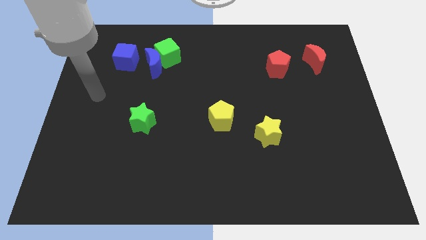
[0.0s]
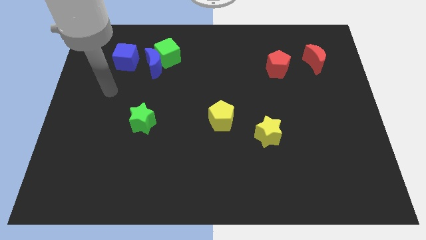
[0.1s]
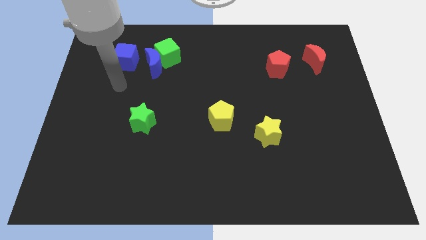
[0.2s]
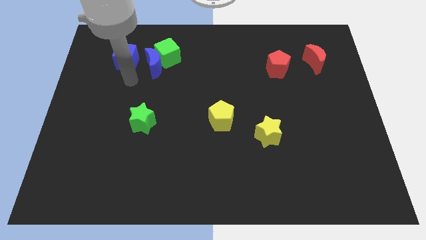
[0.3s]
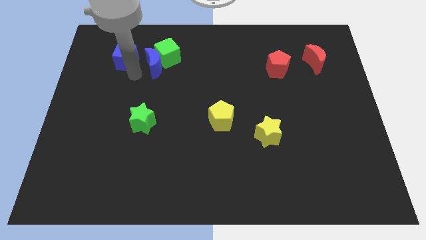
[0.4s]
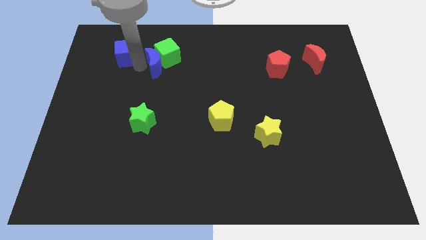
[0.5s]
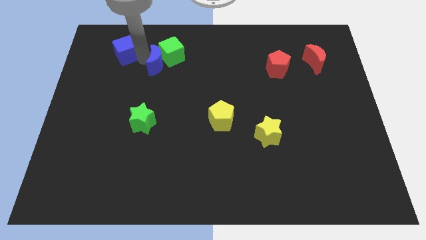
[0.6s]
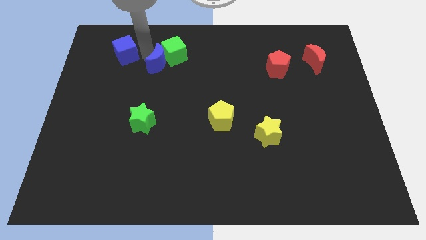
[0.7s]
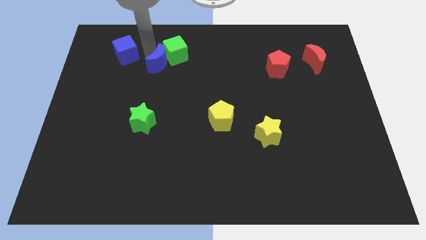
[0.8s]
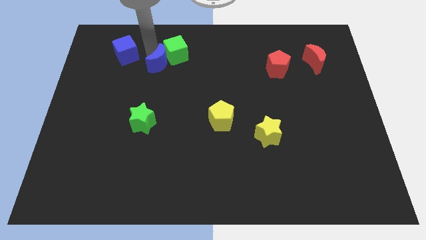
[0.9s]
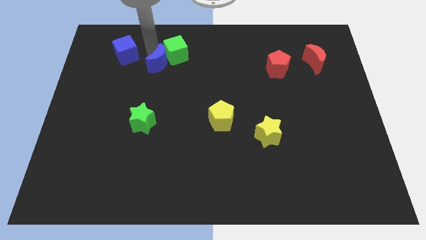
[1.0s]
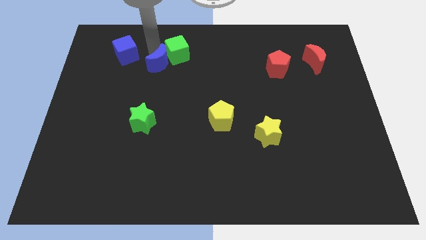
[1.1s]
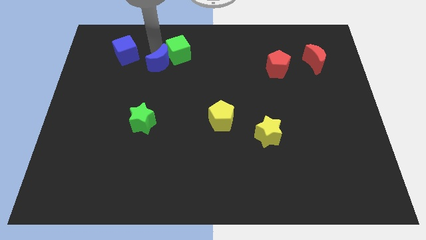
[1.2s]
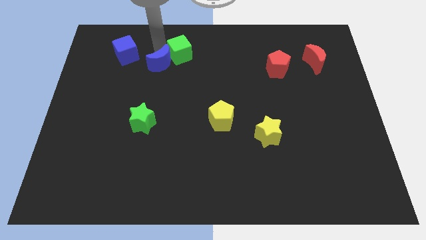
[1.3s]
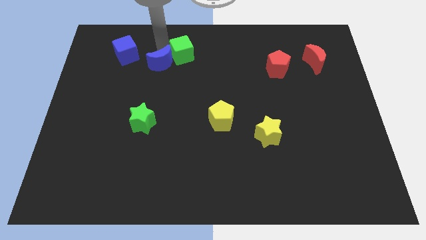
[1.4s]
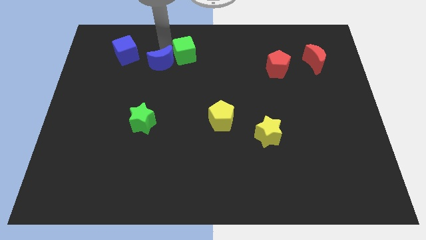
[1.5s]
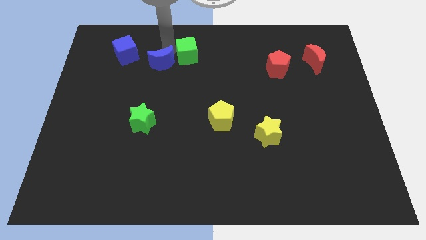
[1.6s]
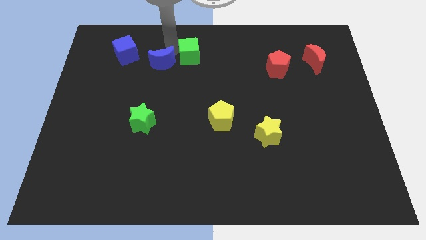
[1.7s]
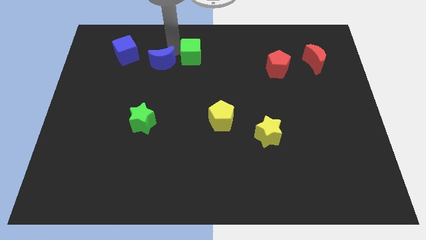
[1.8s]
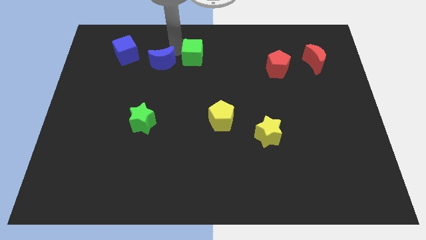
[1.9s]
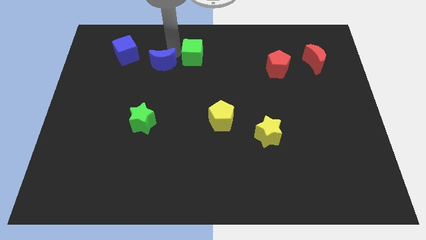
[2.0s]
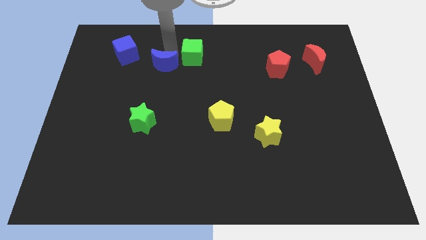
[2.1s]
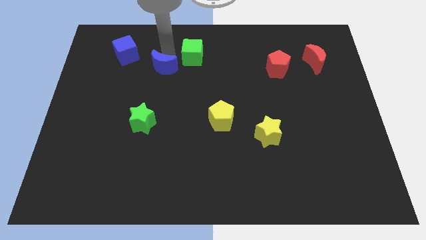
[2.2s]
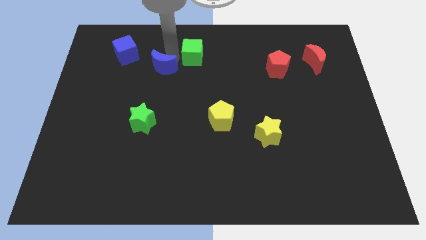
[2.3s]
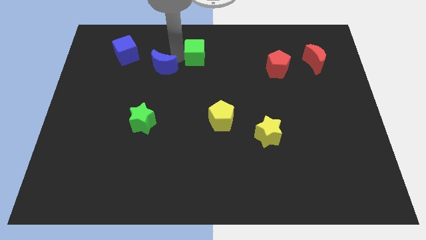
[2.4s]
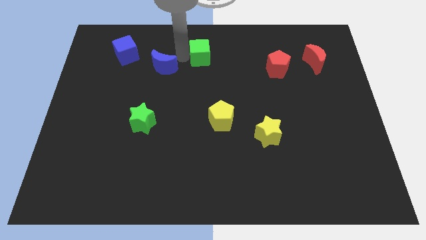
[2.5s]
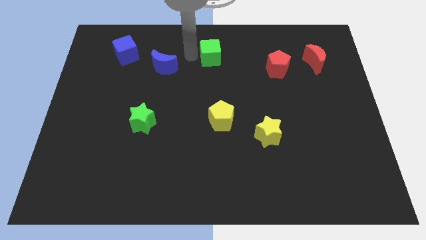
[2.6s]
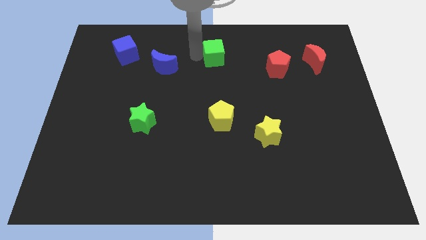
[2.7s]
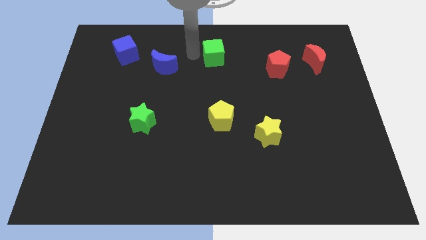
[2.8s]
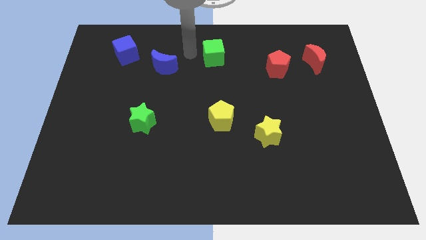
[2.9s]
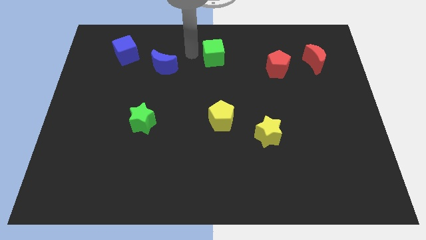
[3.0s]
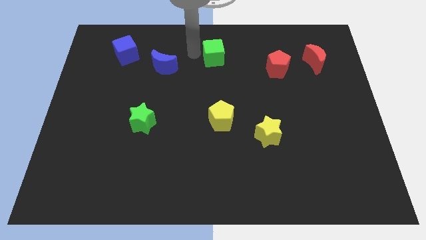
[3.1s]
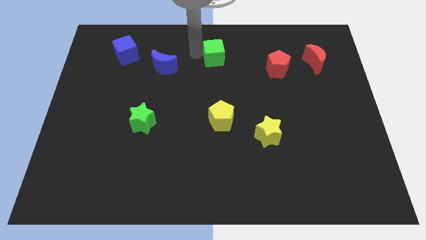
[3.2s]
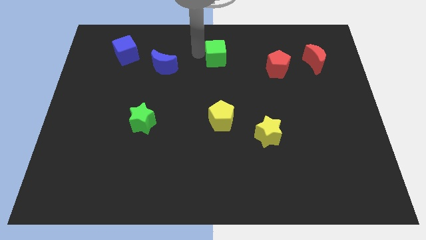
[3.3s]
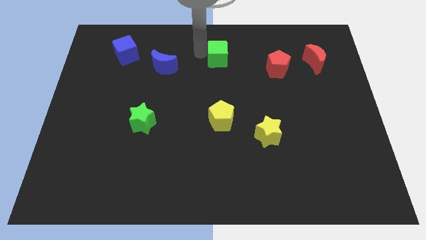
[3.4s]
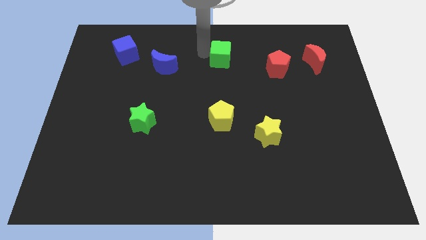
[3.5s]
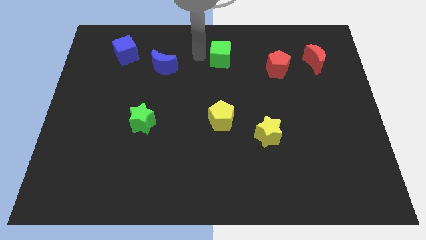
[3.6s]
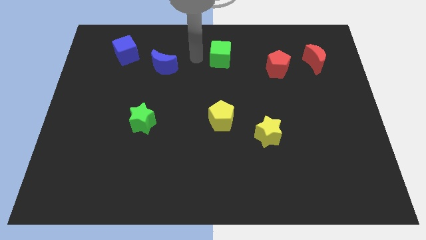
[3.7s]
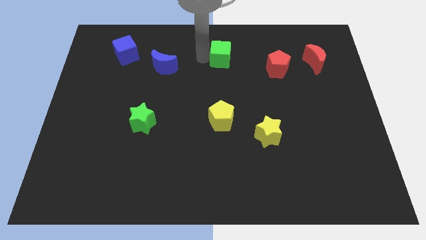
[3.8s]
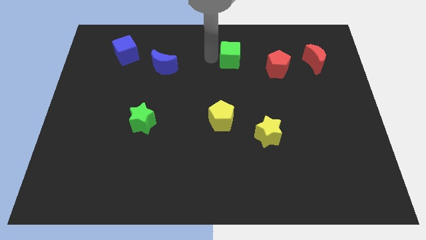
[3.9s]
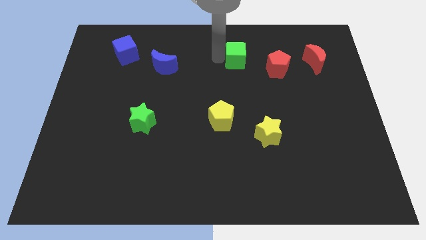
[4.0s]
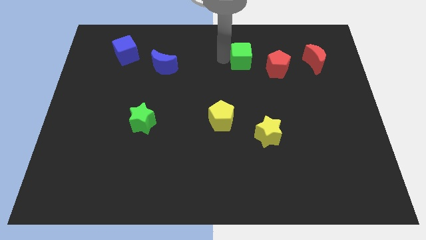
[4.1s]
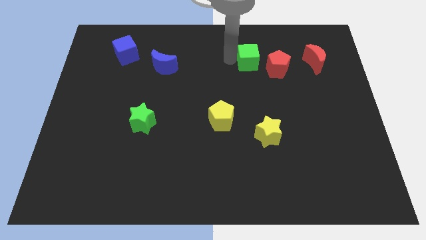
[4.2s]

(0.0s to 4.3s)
push the green cube right

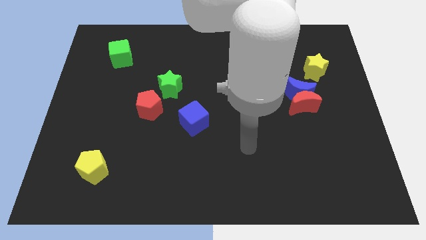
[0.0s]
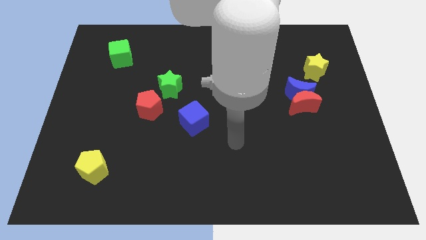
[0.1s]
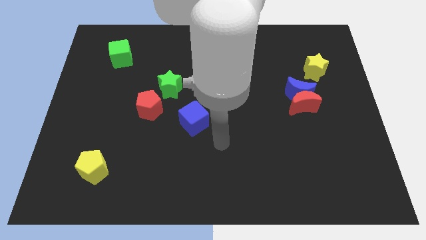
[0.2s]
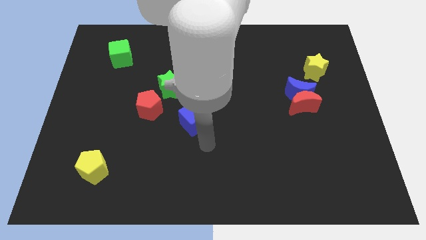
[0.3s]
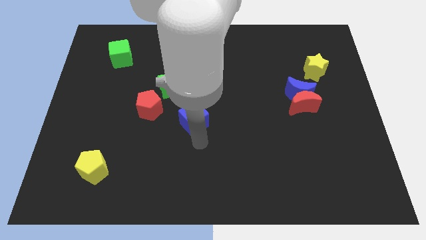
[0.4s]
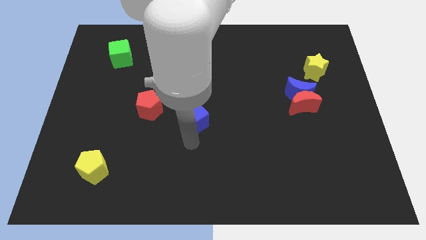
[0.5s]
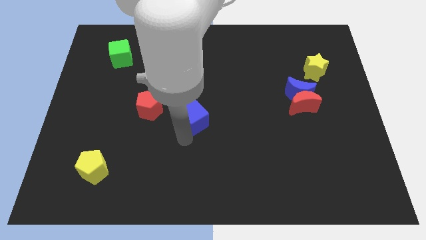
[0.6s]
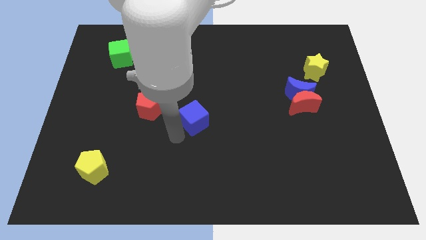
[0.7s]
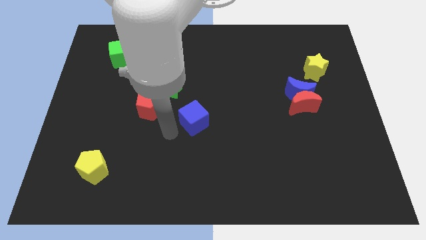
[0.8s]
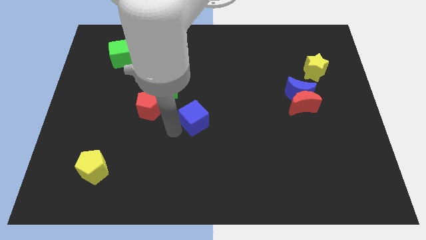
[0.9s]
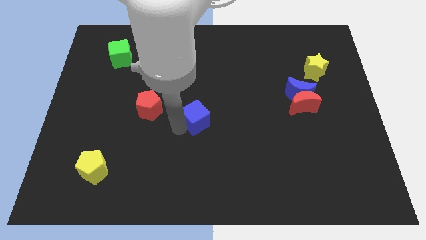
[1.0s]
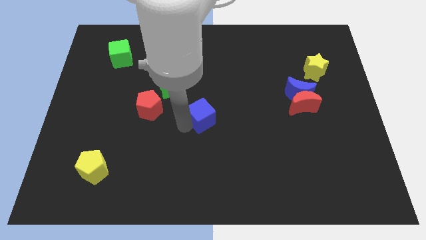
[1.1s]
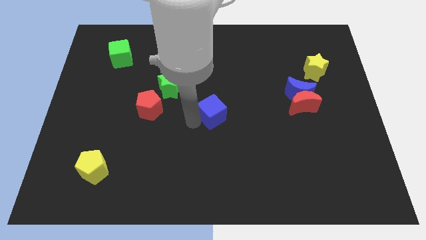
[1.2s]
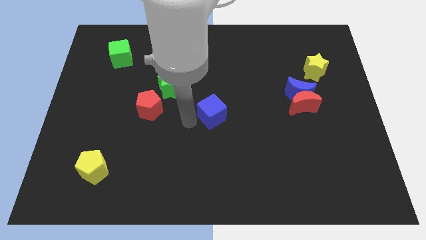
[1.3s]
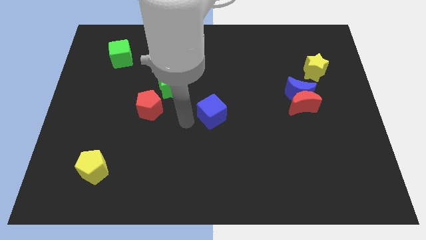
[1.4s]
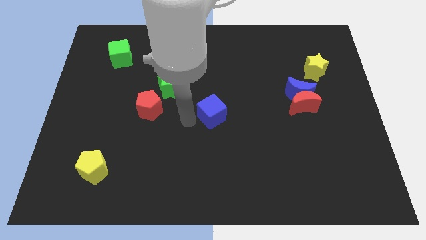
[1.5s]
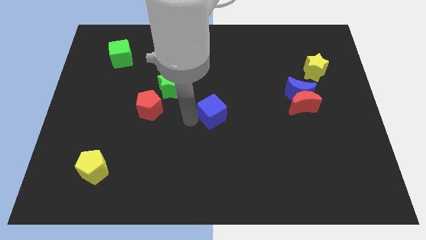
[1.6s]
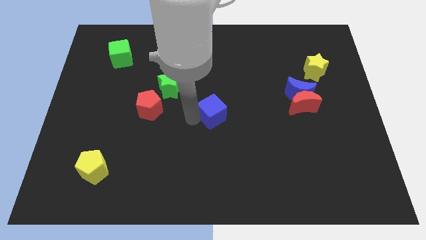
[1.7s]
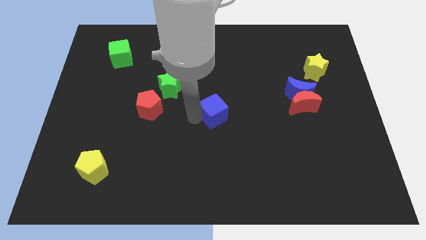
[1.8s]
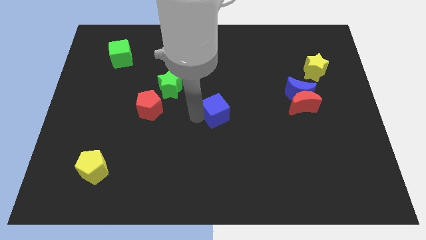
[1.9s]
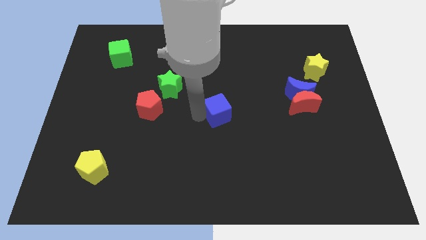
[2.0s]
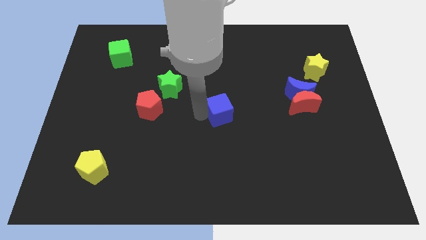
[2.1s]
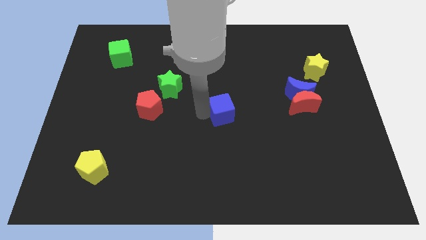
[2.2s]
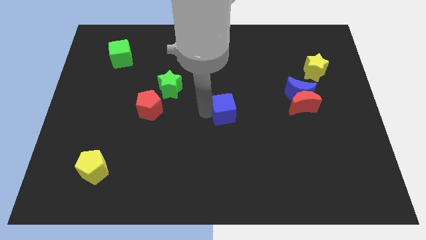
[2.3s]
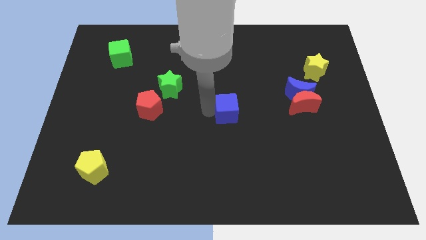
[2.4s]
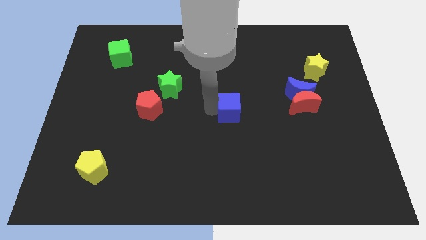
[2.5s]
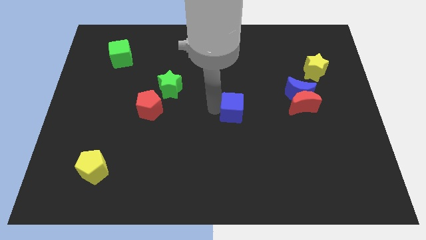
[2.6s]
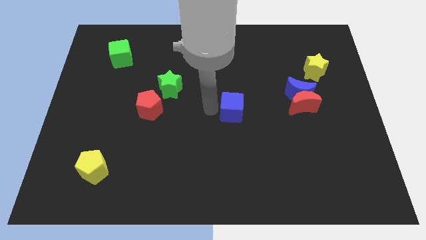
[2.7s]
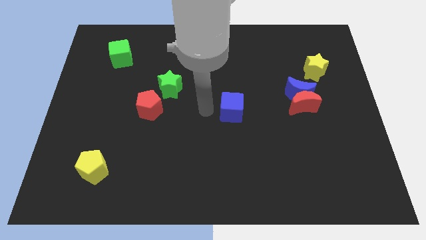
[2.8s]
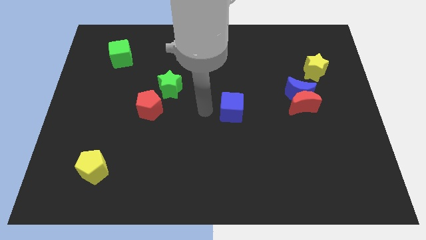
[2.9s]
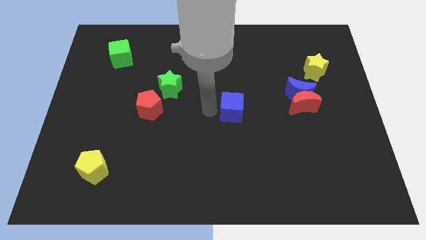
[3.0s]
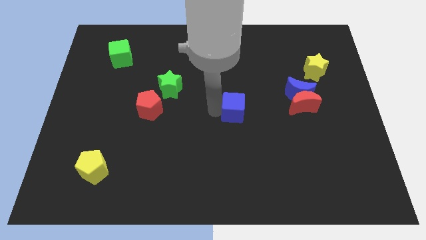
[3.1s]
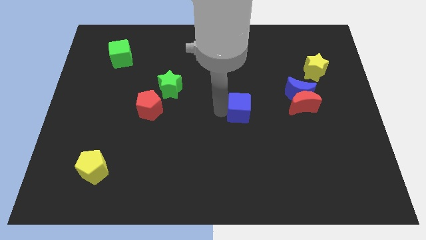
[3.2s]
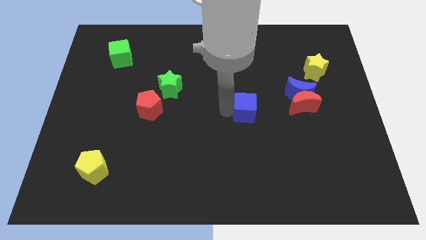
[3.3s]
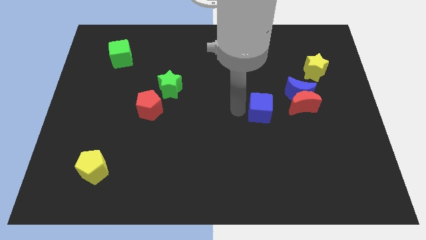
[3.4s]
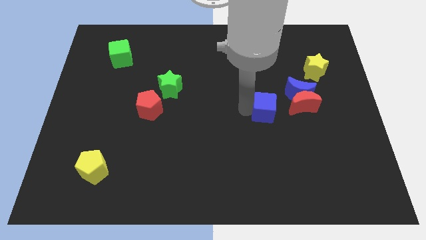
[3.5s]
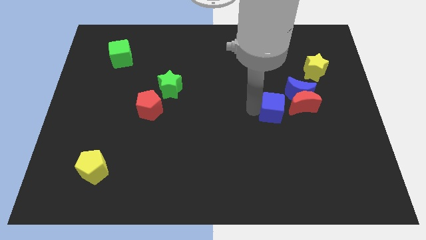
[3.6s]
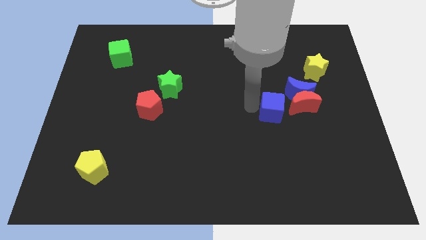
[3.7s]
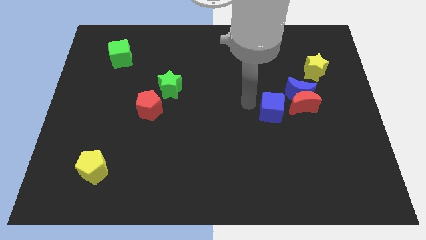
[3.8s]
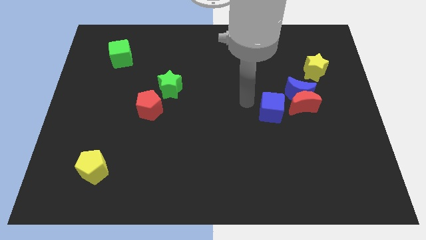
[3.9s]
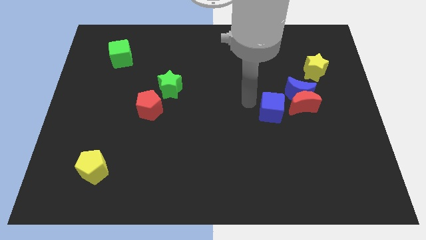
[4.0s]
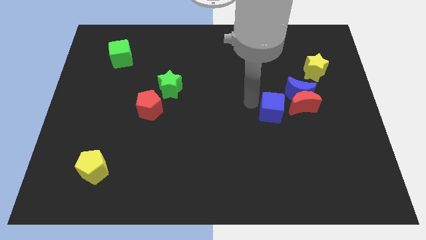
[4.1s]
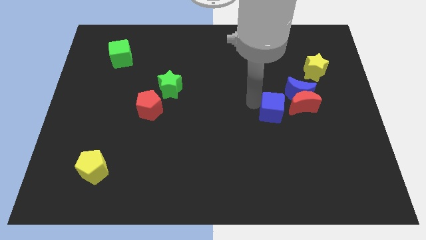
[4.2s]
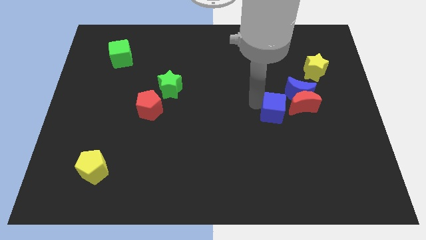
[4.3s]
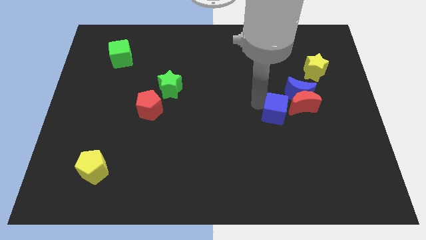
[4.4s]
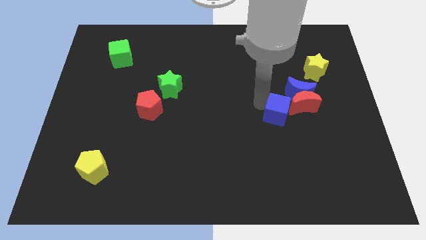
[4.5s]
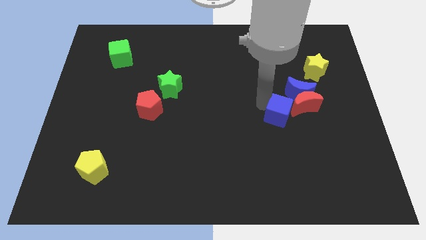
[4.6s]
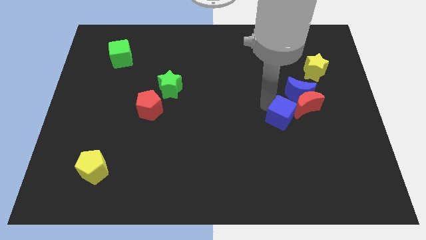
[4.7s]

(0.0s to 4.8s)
push the blue cube right
